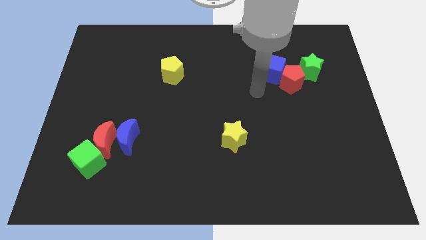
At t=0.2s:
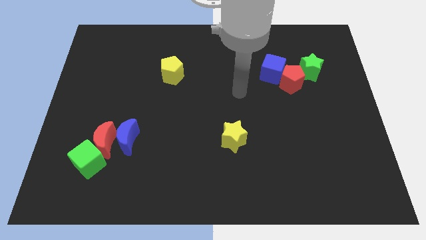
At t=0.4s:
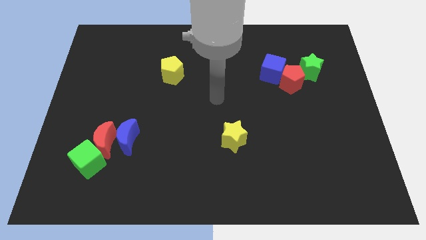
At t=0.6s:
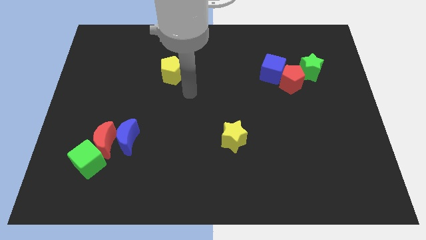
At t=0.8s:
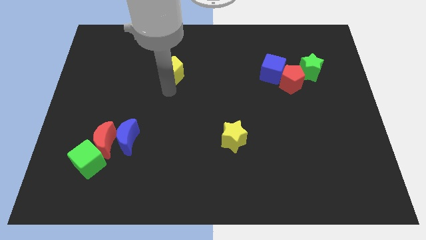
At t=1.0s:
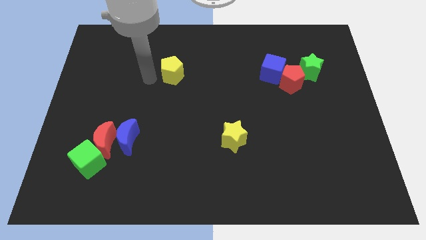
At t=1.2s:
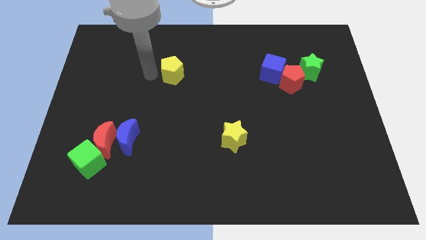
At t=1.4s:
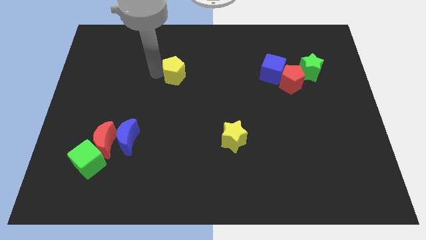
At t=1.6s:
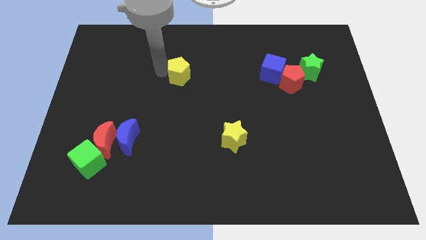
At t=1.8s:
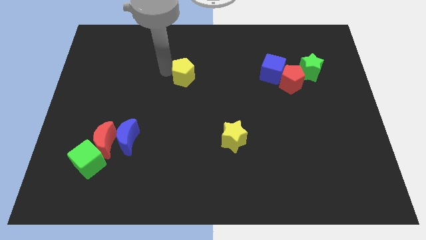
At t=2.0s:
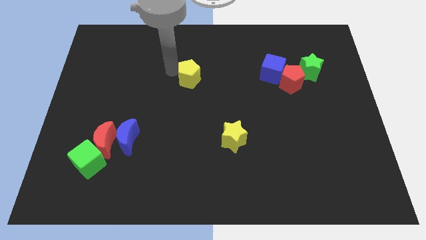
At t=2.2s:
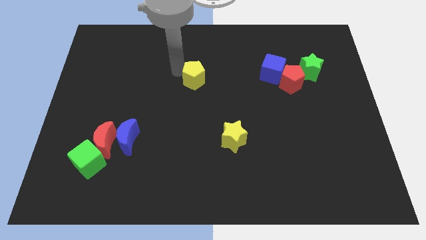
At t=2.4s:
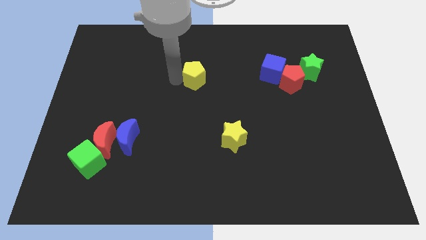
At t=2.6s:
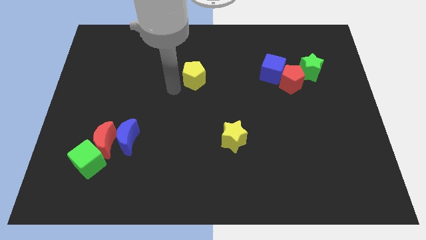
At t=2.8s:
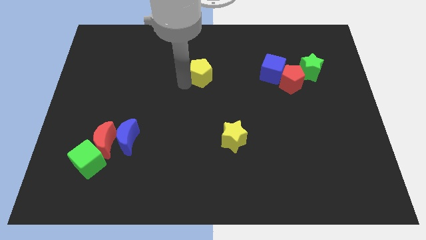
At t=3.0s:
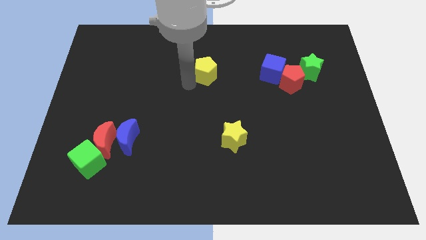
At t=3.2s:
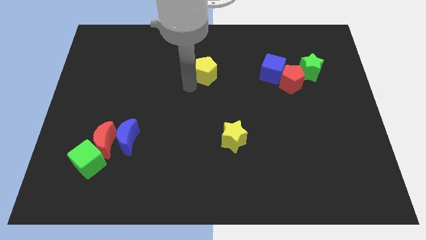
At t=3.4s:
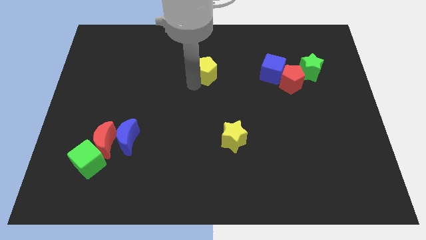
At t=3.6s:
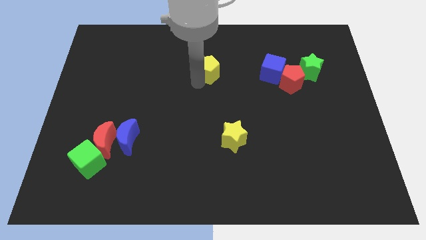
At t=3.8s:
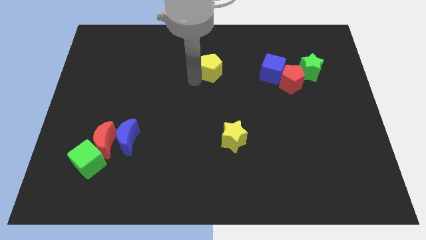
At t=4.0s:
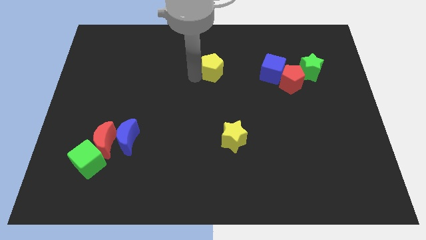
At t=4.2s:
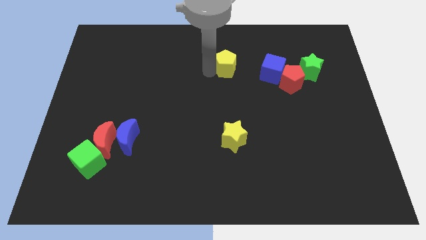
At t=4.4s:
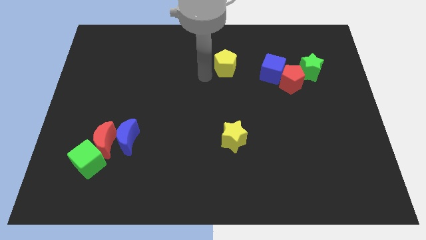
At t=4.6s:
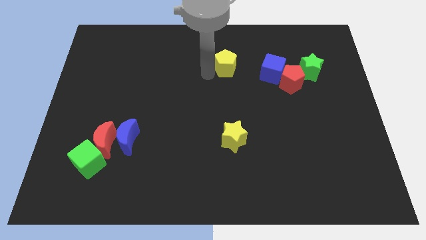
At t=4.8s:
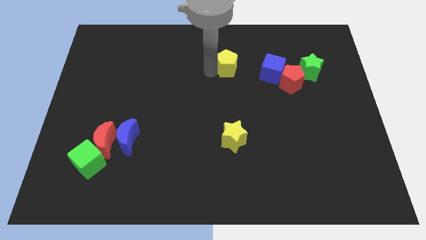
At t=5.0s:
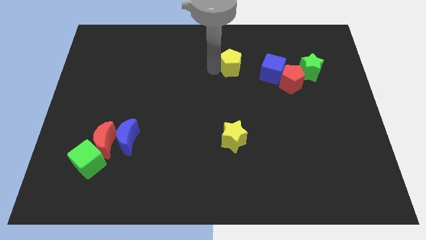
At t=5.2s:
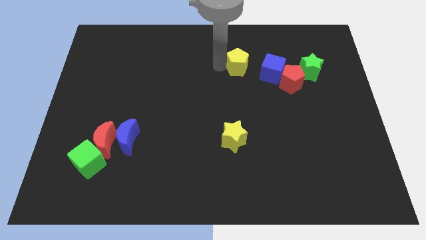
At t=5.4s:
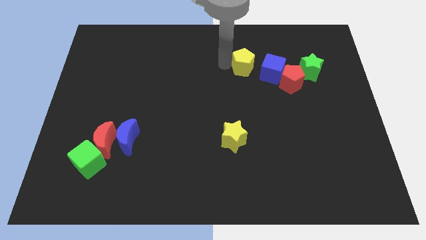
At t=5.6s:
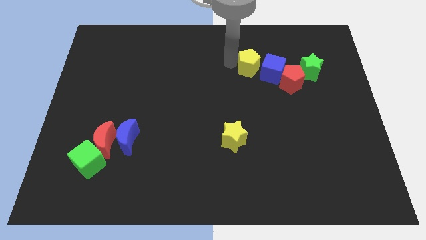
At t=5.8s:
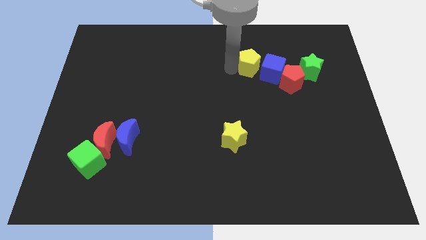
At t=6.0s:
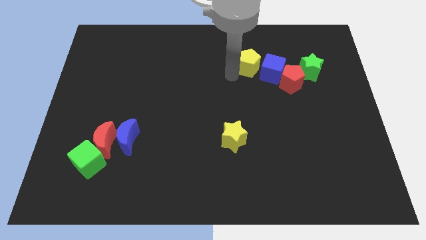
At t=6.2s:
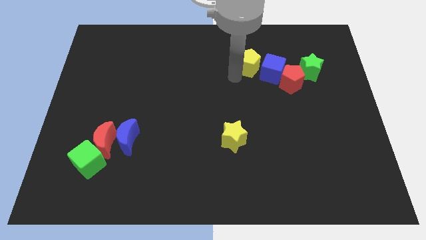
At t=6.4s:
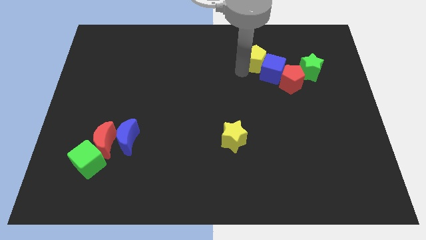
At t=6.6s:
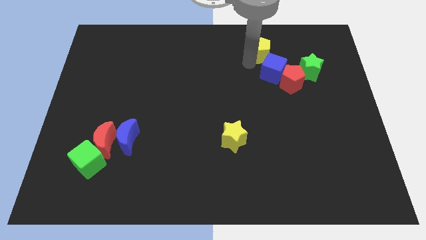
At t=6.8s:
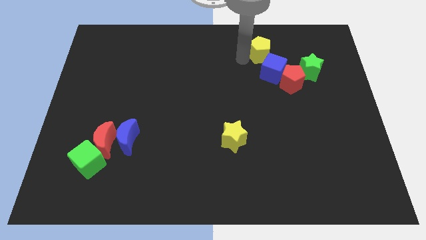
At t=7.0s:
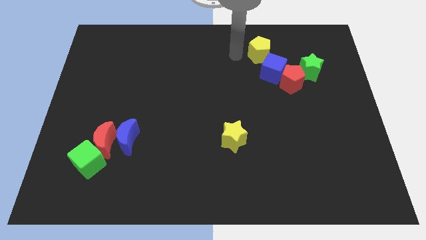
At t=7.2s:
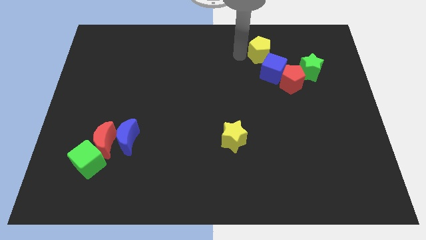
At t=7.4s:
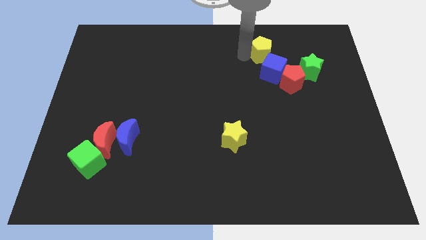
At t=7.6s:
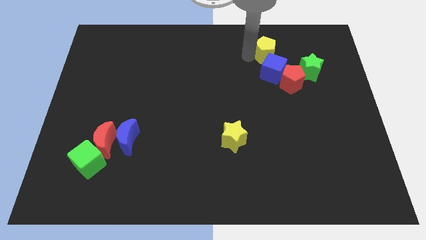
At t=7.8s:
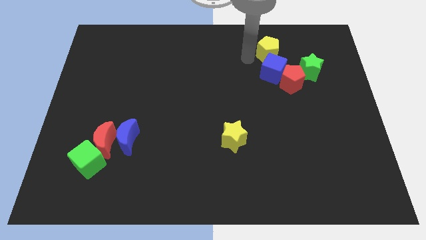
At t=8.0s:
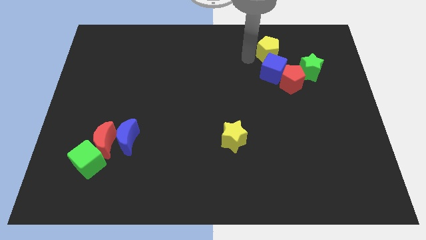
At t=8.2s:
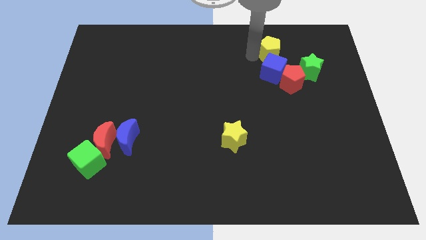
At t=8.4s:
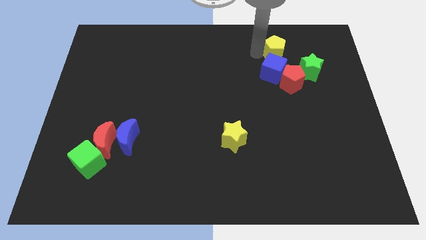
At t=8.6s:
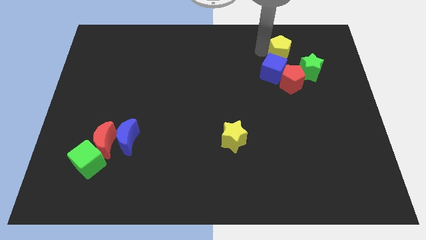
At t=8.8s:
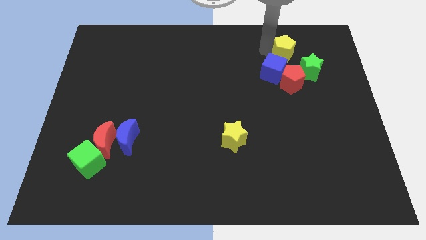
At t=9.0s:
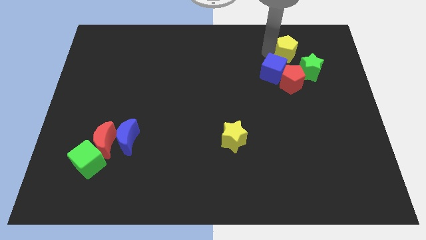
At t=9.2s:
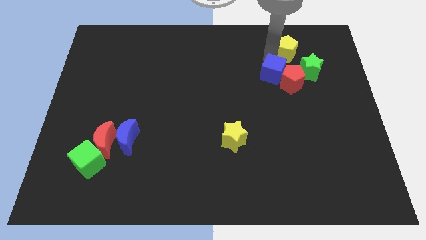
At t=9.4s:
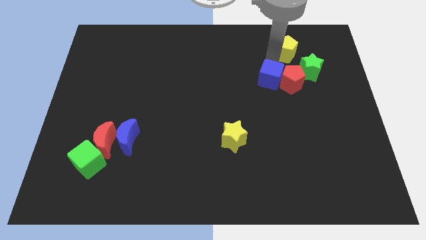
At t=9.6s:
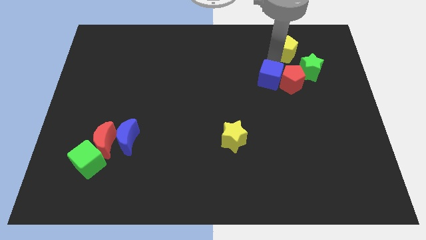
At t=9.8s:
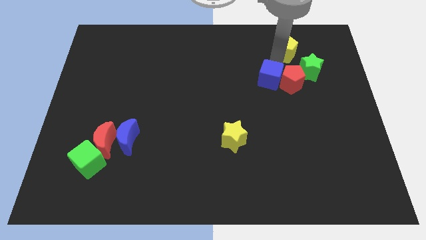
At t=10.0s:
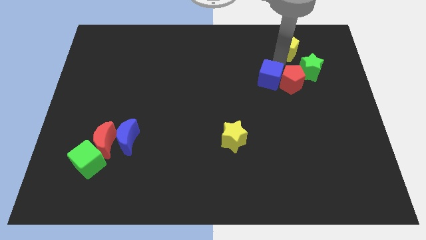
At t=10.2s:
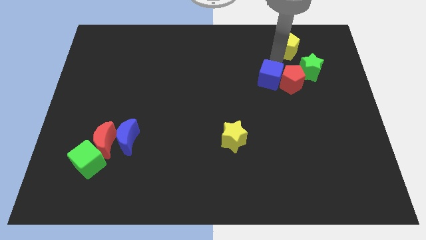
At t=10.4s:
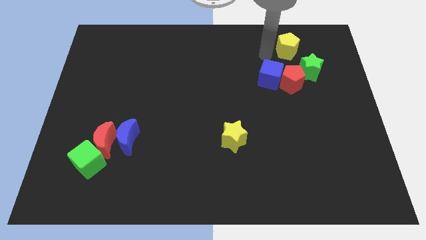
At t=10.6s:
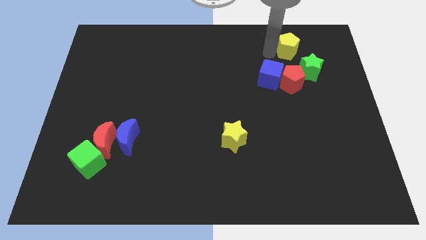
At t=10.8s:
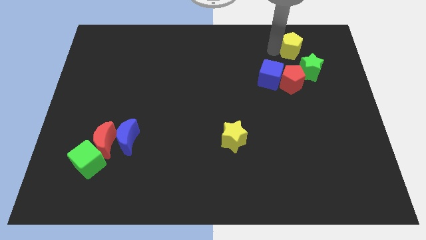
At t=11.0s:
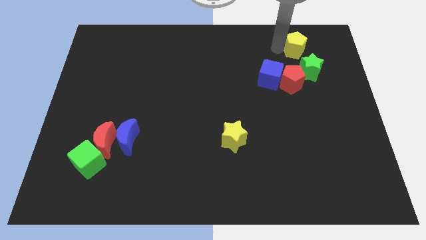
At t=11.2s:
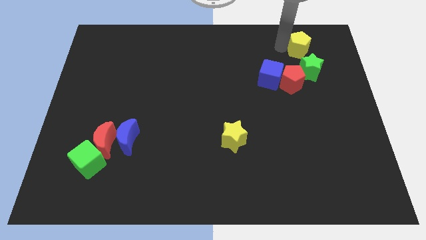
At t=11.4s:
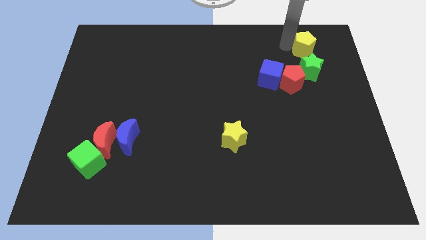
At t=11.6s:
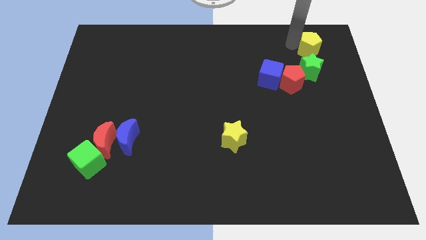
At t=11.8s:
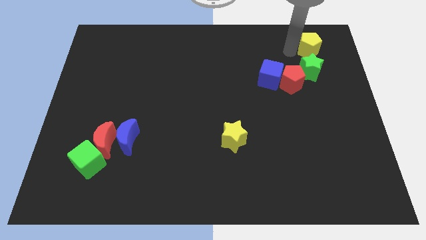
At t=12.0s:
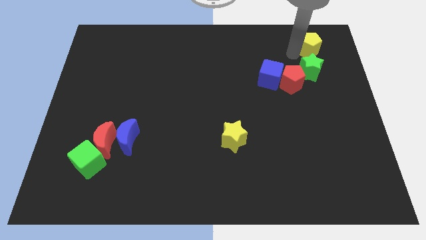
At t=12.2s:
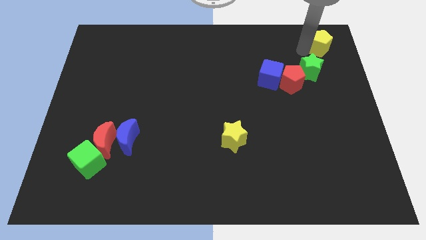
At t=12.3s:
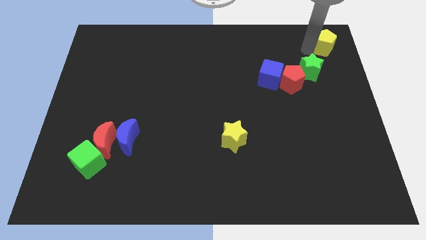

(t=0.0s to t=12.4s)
put the yellow pentagon to the top right
